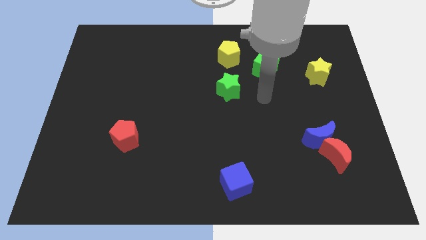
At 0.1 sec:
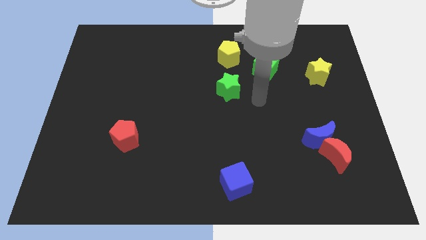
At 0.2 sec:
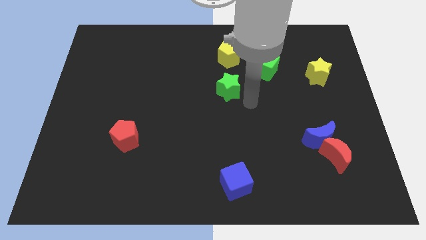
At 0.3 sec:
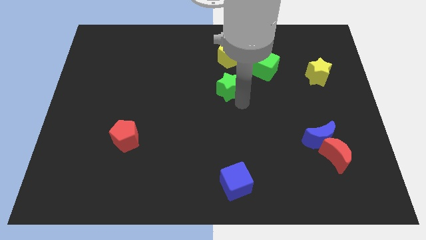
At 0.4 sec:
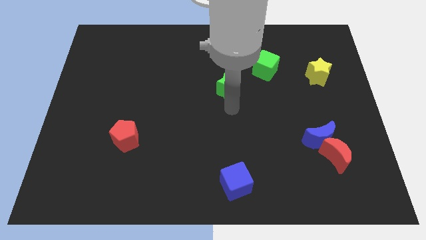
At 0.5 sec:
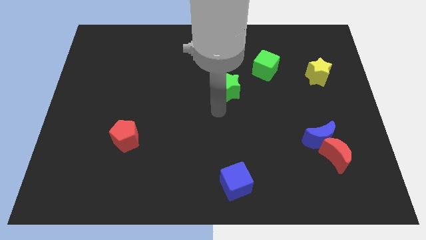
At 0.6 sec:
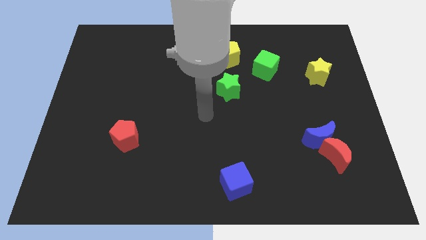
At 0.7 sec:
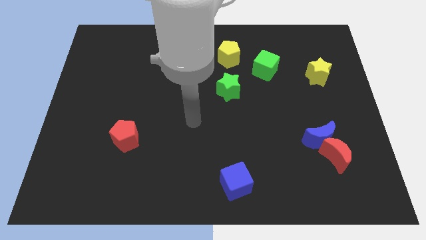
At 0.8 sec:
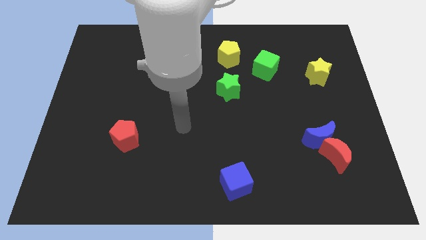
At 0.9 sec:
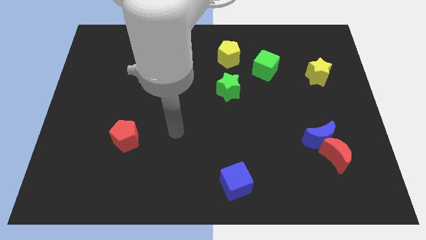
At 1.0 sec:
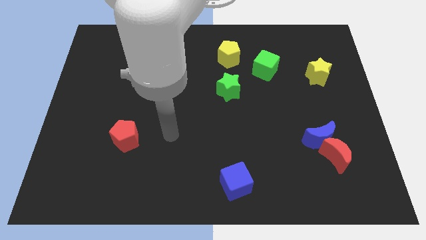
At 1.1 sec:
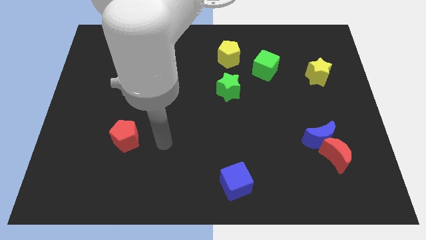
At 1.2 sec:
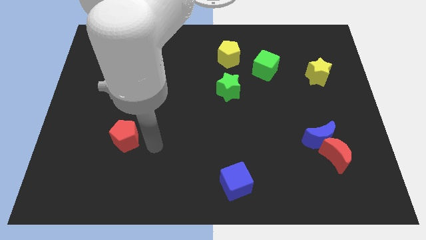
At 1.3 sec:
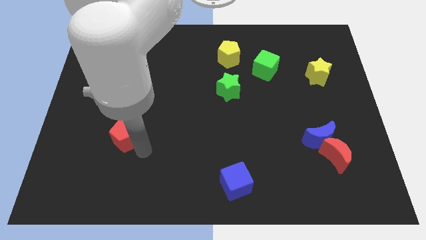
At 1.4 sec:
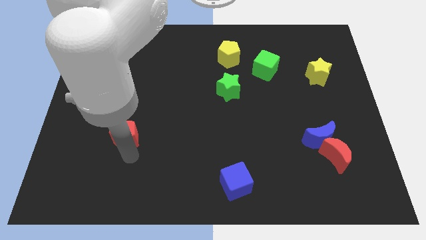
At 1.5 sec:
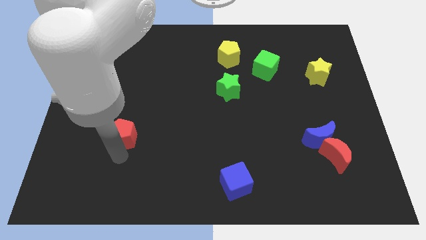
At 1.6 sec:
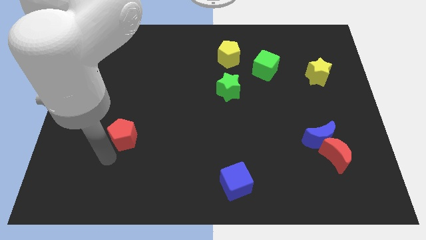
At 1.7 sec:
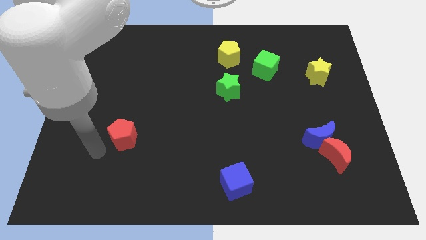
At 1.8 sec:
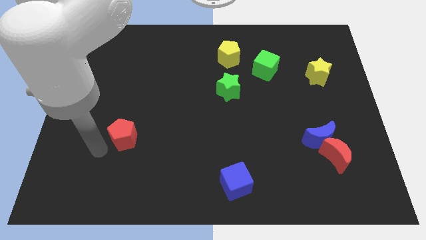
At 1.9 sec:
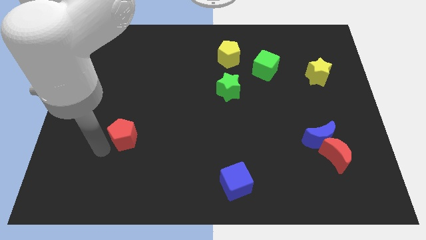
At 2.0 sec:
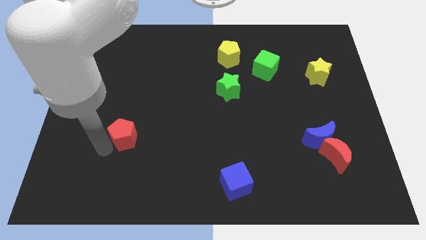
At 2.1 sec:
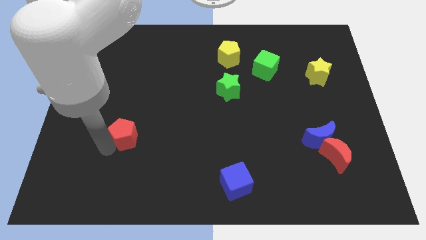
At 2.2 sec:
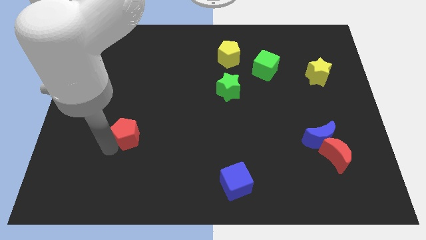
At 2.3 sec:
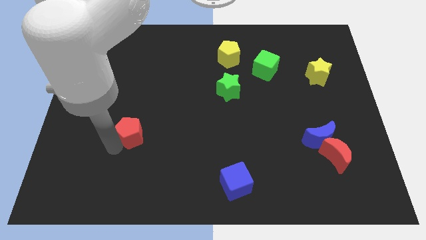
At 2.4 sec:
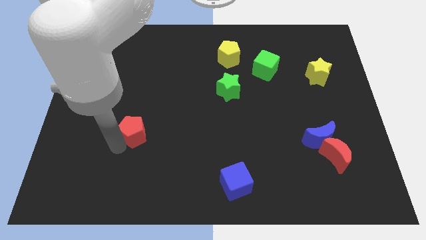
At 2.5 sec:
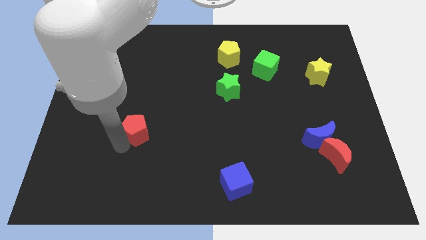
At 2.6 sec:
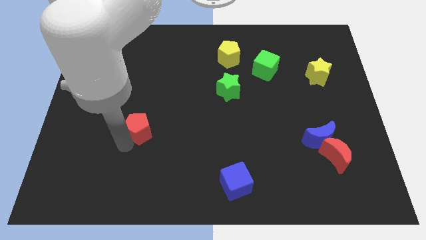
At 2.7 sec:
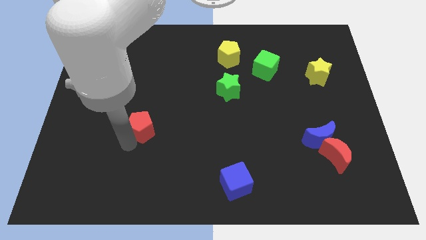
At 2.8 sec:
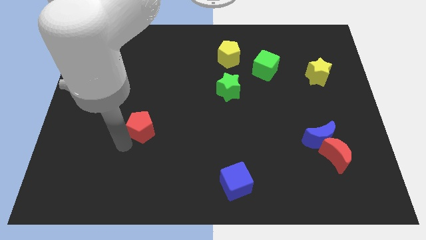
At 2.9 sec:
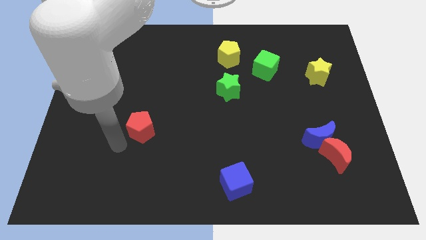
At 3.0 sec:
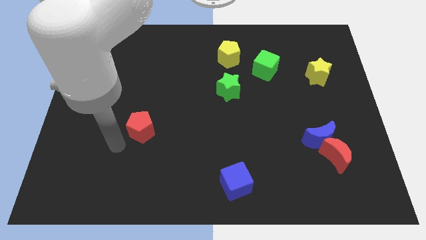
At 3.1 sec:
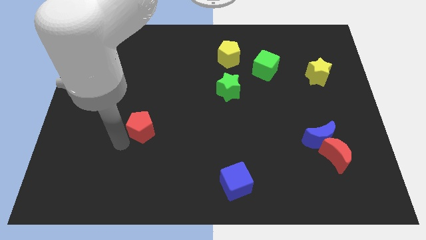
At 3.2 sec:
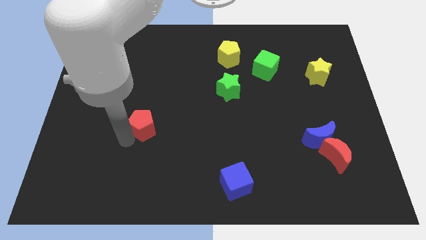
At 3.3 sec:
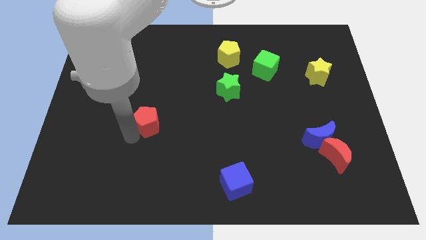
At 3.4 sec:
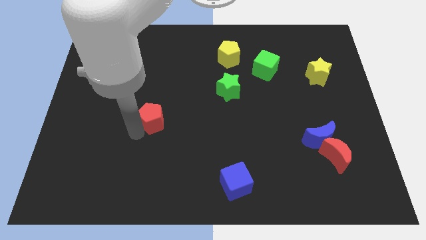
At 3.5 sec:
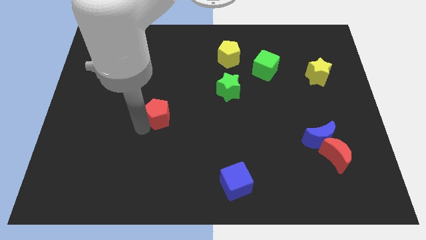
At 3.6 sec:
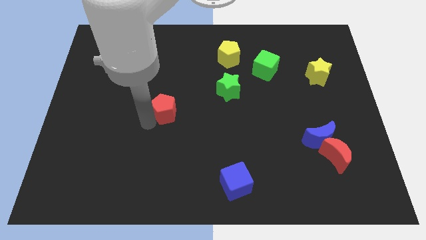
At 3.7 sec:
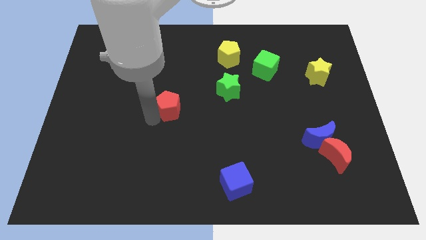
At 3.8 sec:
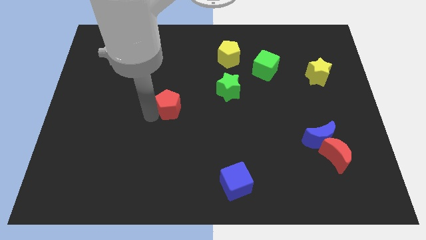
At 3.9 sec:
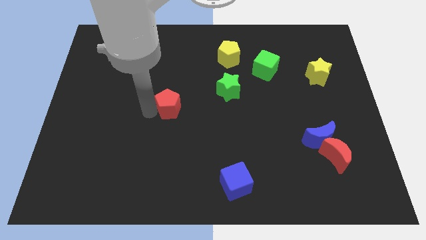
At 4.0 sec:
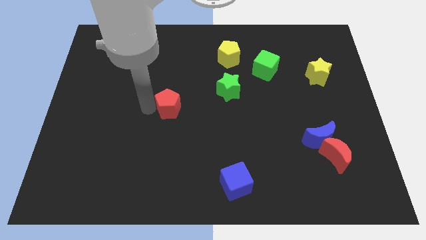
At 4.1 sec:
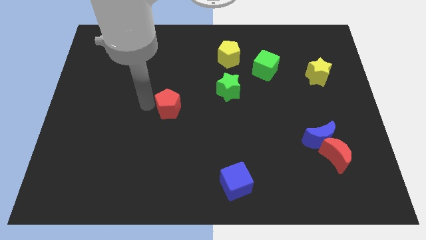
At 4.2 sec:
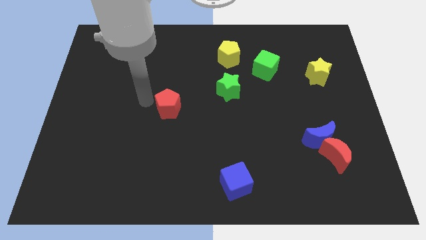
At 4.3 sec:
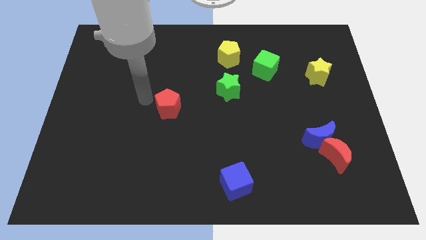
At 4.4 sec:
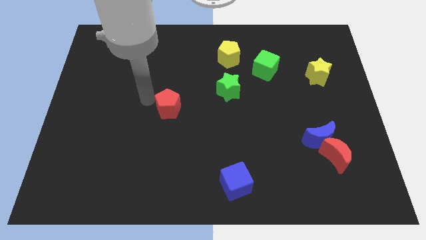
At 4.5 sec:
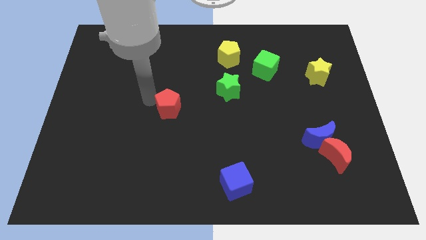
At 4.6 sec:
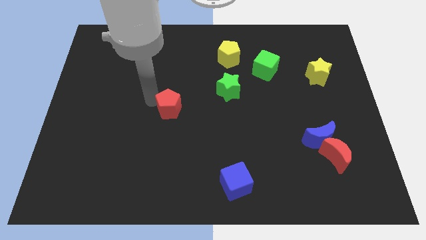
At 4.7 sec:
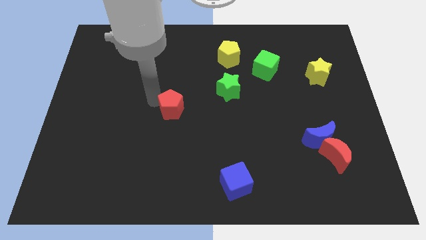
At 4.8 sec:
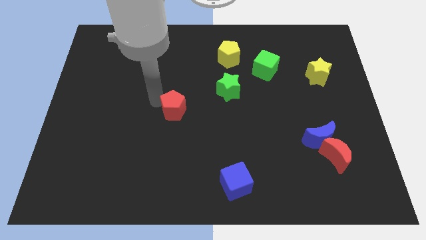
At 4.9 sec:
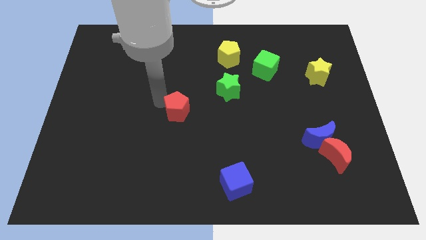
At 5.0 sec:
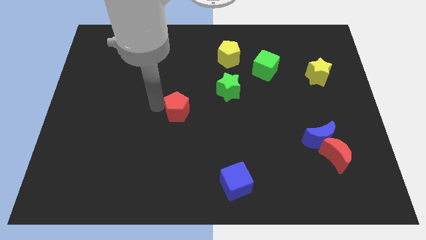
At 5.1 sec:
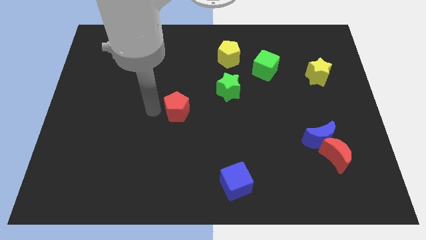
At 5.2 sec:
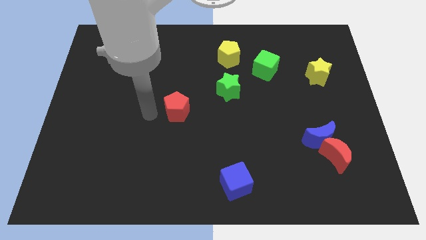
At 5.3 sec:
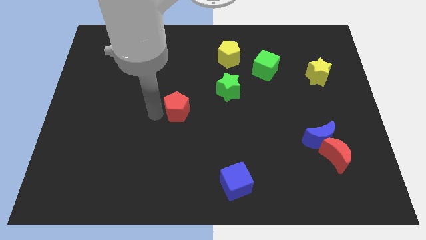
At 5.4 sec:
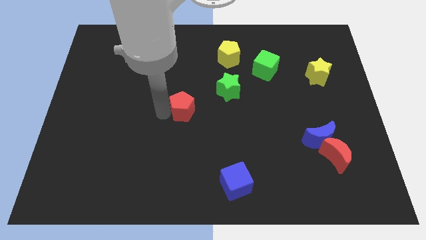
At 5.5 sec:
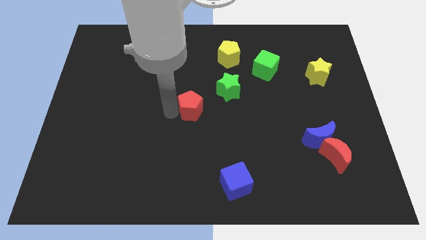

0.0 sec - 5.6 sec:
push the red pentagon to the bottom left side of the green star
